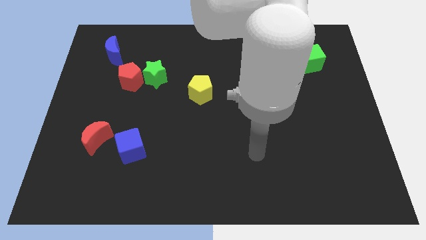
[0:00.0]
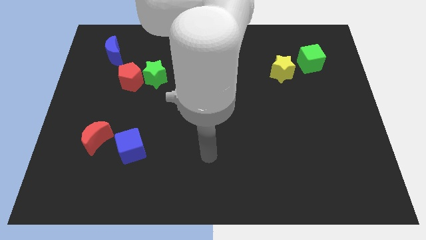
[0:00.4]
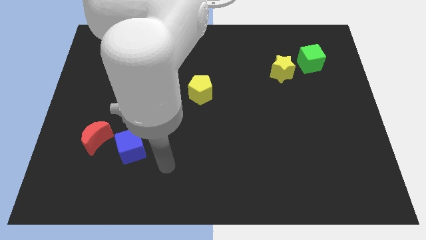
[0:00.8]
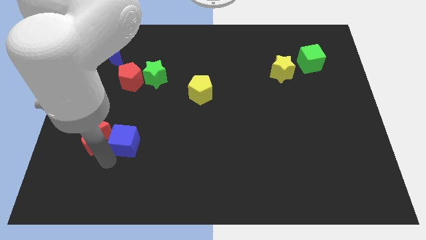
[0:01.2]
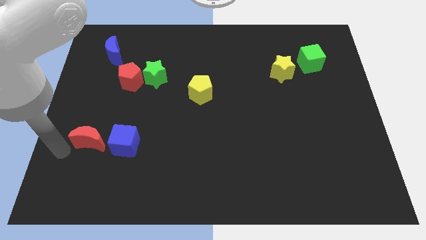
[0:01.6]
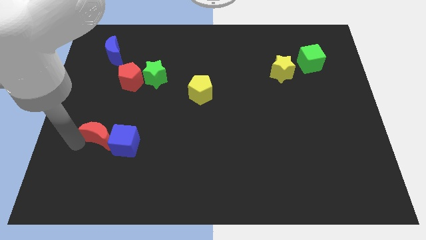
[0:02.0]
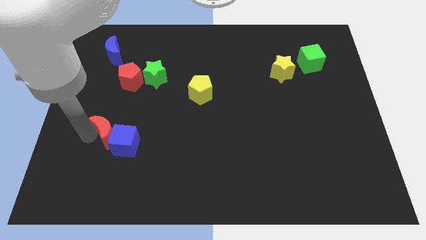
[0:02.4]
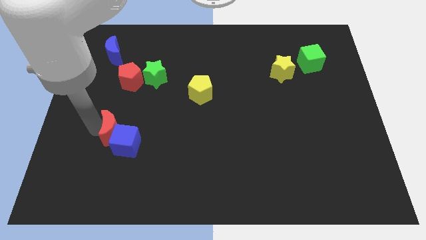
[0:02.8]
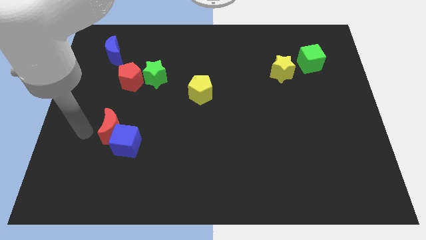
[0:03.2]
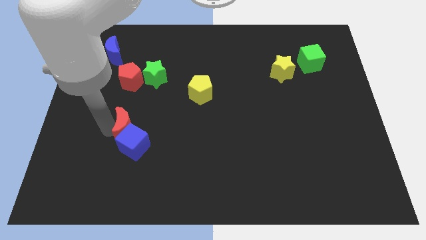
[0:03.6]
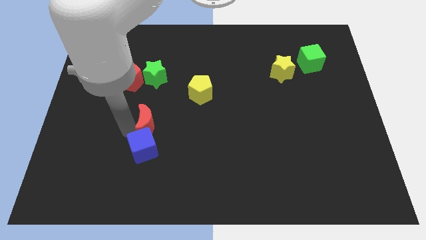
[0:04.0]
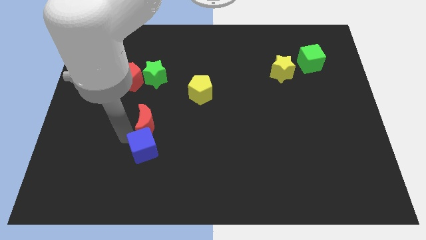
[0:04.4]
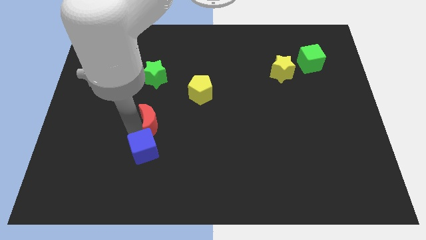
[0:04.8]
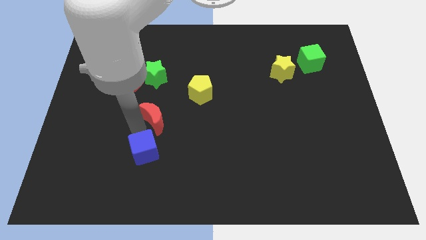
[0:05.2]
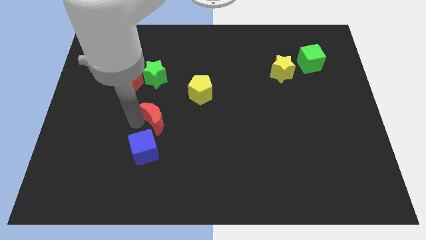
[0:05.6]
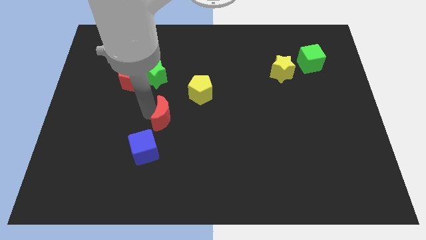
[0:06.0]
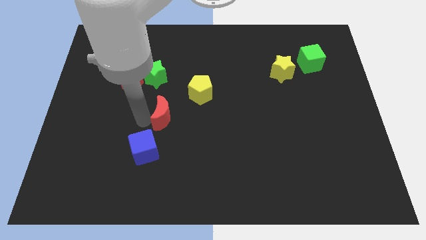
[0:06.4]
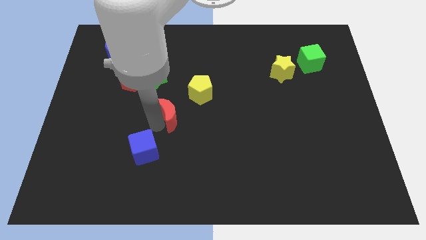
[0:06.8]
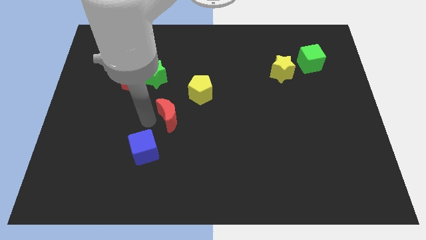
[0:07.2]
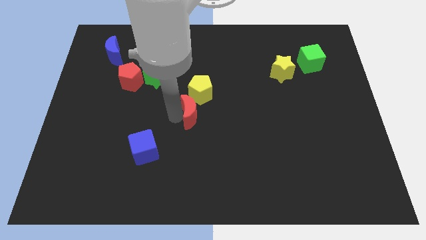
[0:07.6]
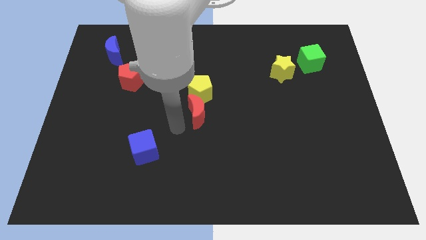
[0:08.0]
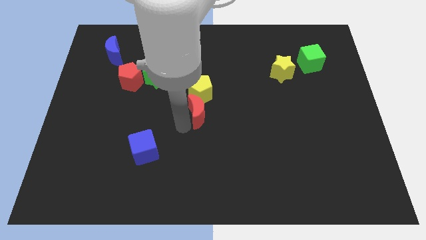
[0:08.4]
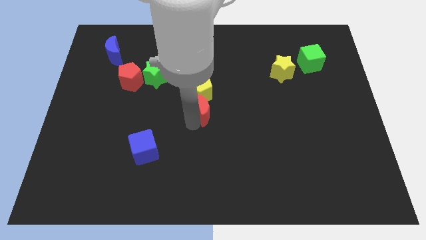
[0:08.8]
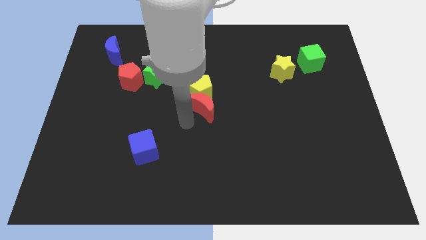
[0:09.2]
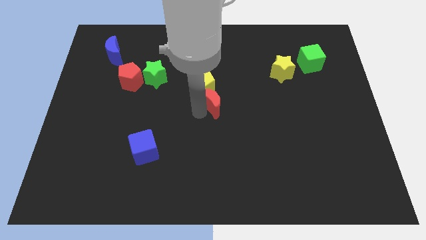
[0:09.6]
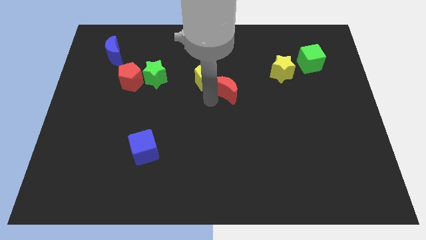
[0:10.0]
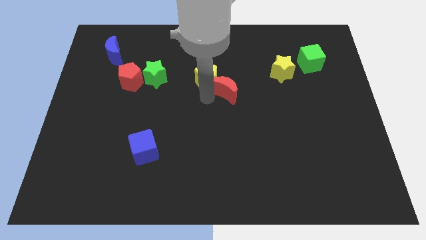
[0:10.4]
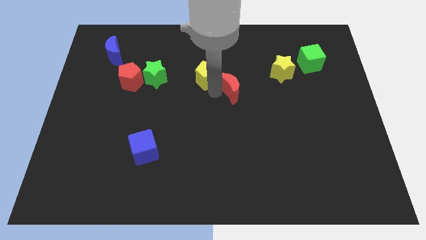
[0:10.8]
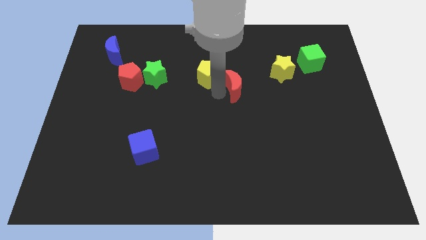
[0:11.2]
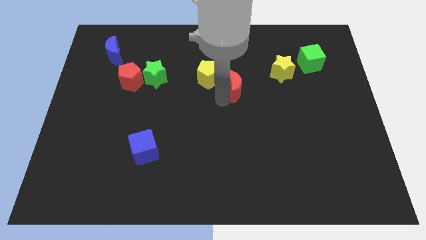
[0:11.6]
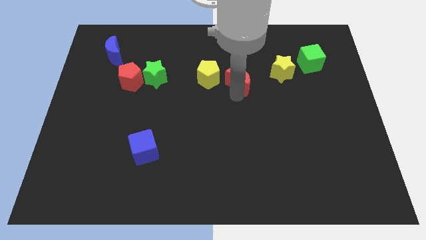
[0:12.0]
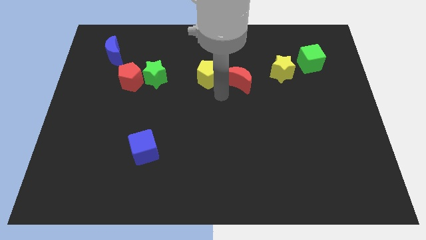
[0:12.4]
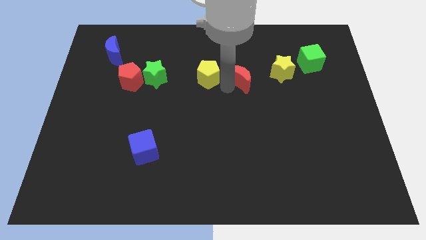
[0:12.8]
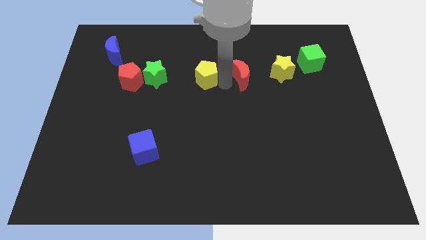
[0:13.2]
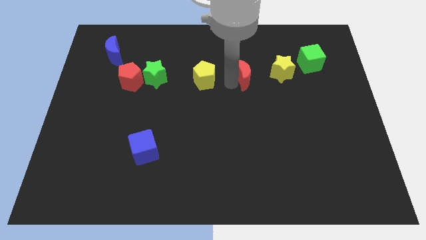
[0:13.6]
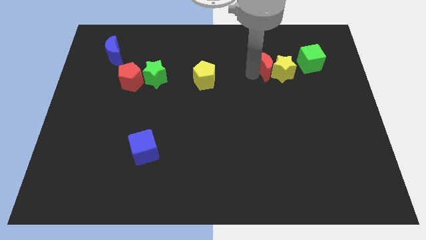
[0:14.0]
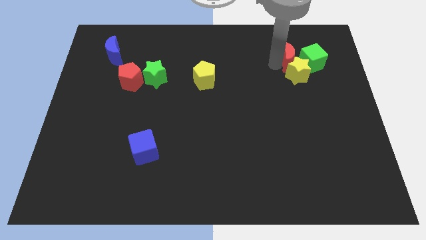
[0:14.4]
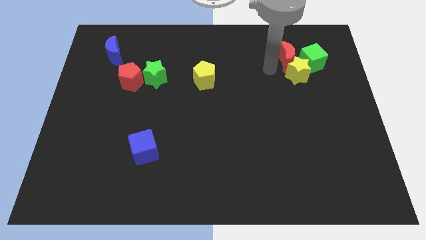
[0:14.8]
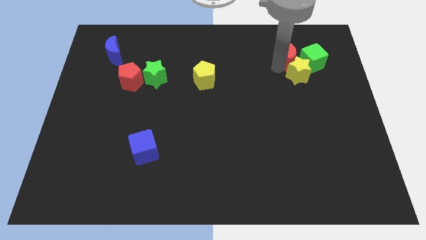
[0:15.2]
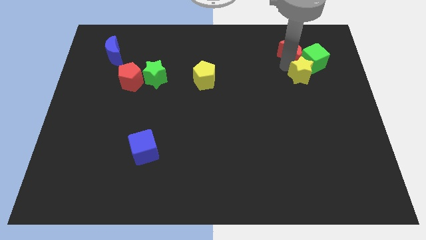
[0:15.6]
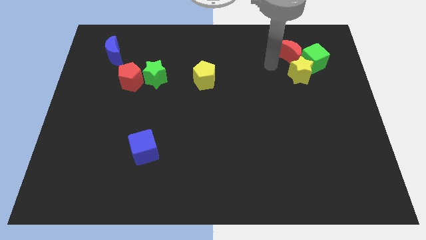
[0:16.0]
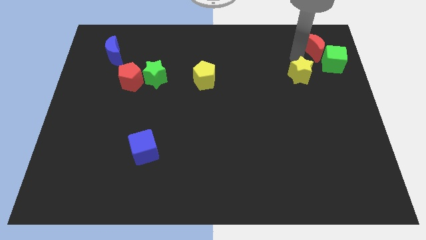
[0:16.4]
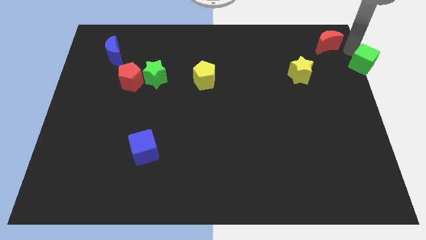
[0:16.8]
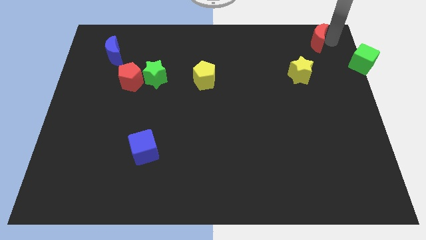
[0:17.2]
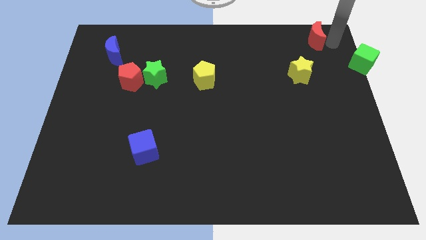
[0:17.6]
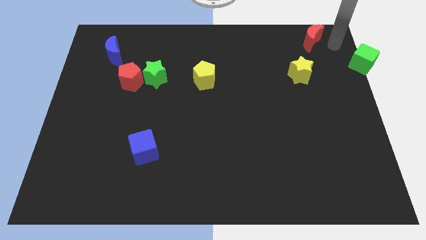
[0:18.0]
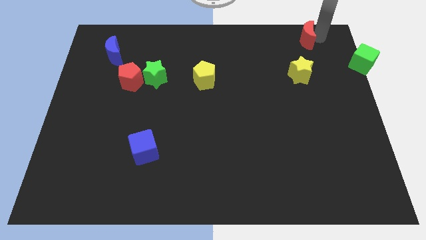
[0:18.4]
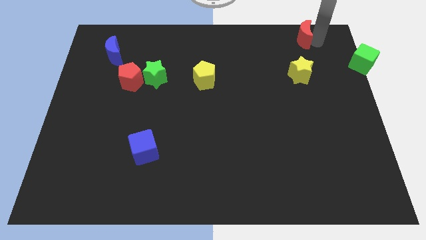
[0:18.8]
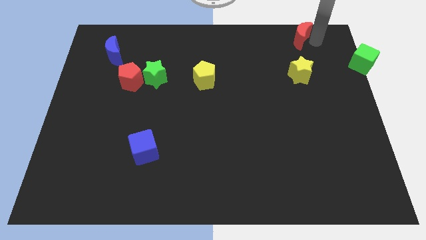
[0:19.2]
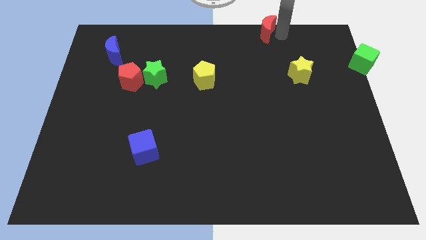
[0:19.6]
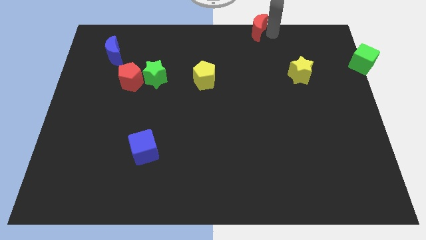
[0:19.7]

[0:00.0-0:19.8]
push the red moon to the top side
